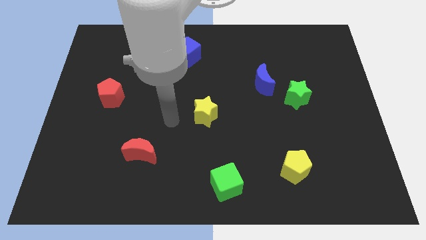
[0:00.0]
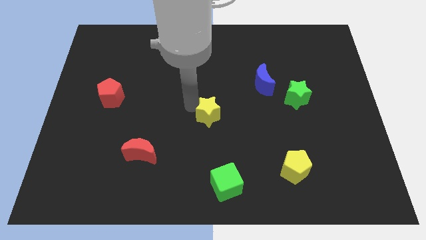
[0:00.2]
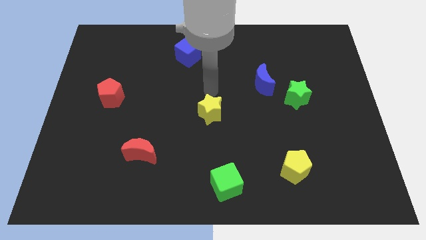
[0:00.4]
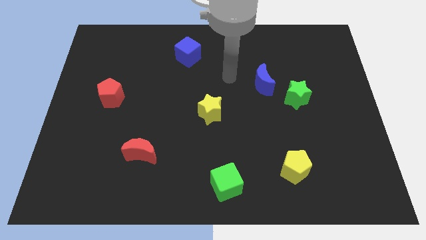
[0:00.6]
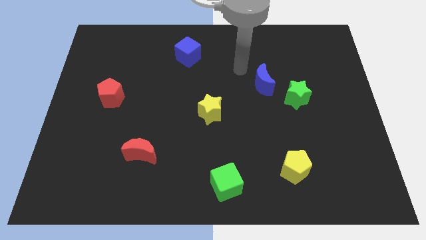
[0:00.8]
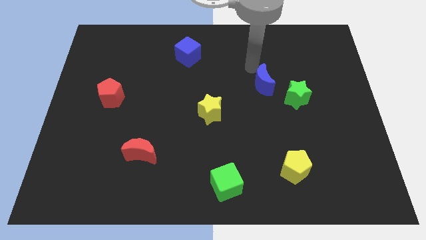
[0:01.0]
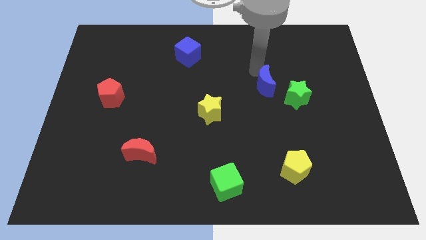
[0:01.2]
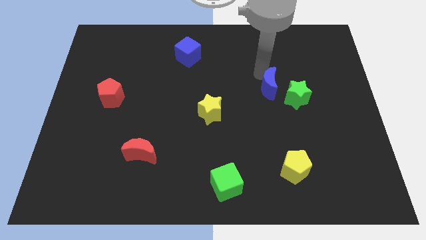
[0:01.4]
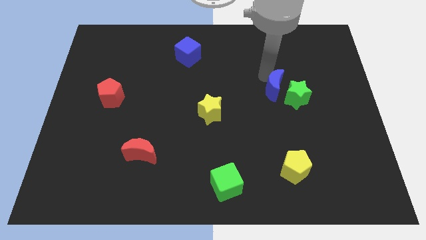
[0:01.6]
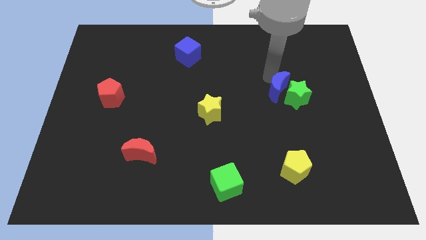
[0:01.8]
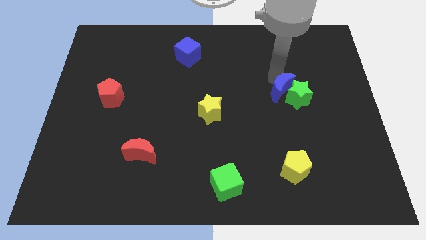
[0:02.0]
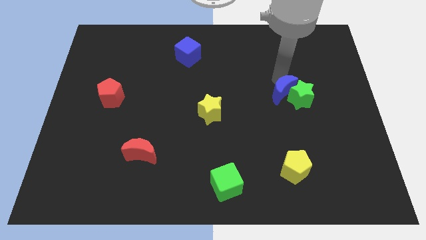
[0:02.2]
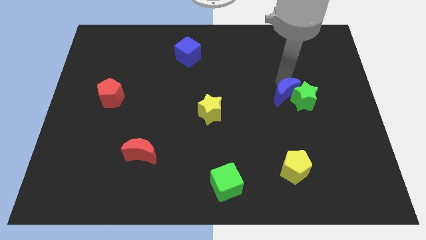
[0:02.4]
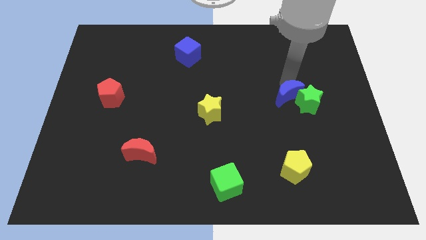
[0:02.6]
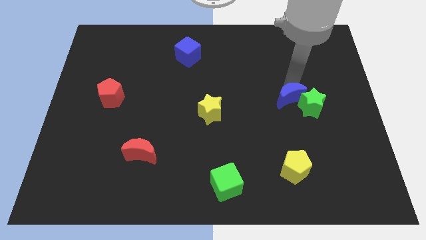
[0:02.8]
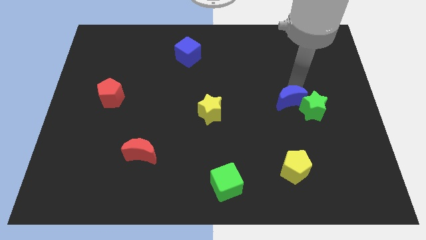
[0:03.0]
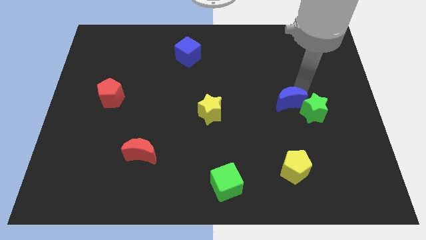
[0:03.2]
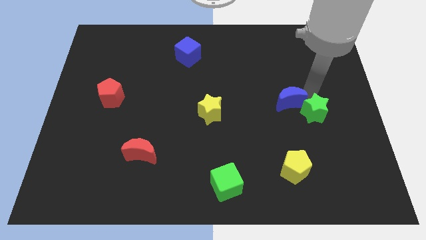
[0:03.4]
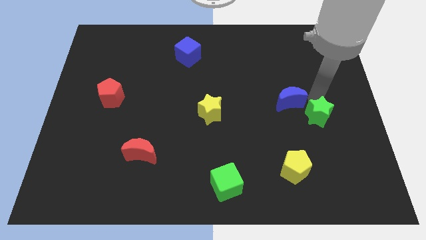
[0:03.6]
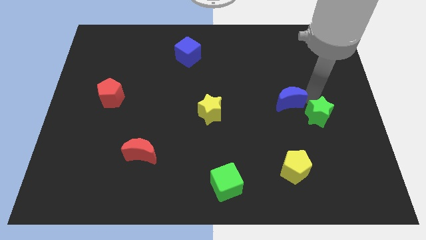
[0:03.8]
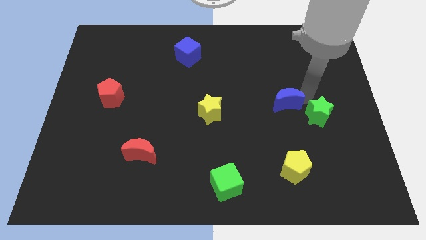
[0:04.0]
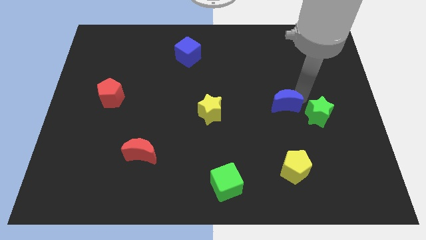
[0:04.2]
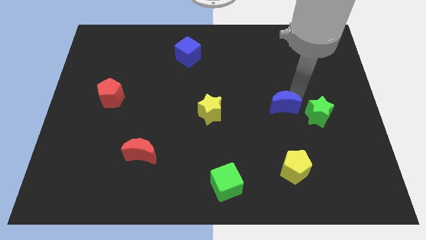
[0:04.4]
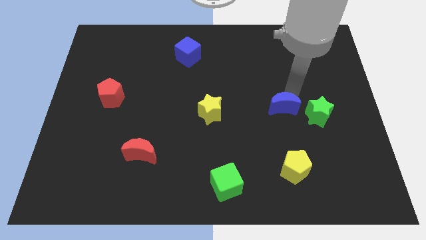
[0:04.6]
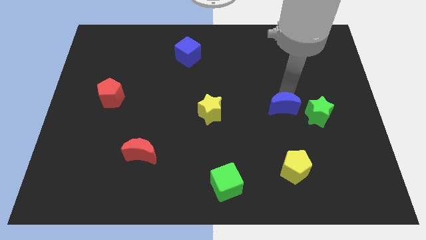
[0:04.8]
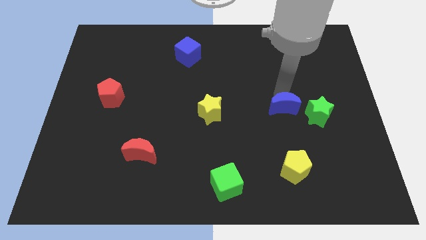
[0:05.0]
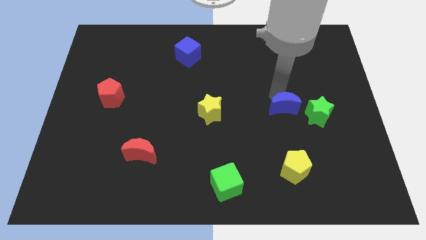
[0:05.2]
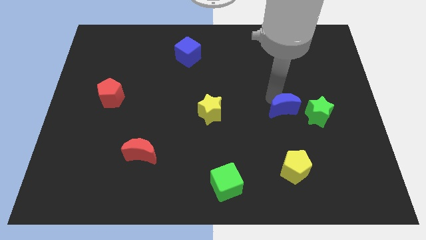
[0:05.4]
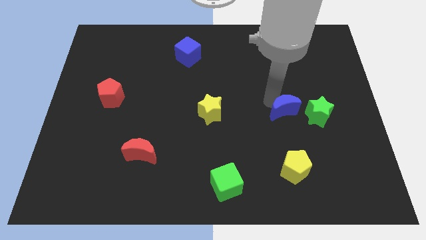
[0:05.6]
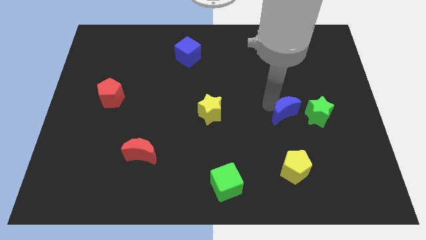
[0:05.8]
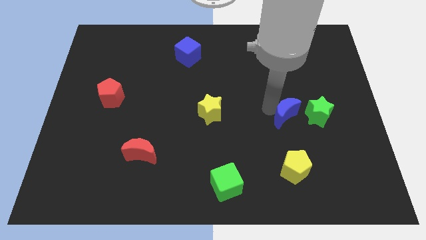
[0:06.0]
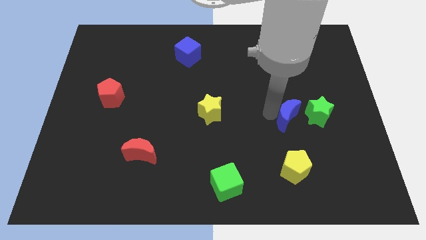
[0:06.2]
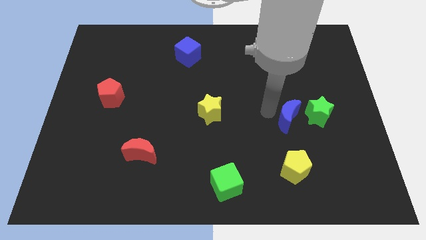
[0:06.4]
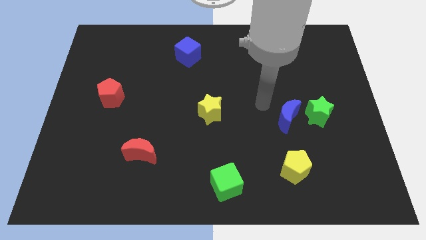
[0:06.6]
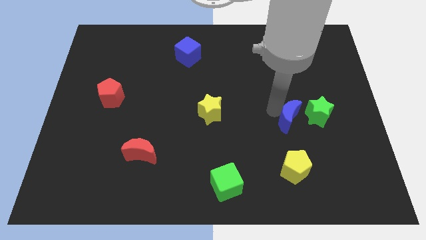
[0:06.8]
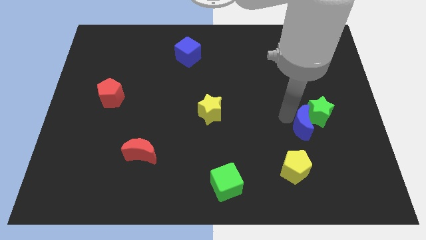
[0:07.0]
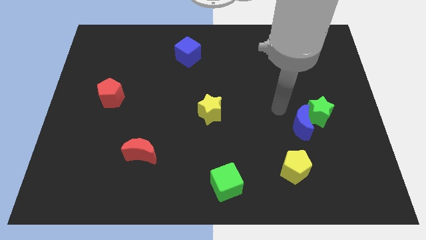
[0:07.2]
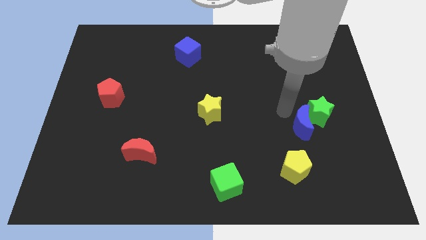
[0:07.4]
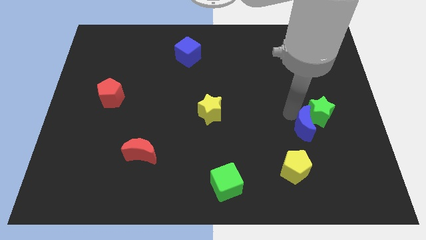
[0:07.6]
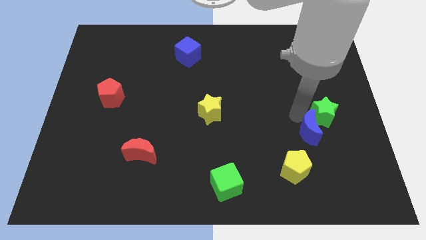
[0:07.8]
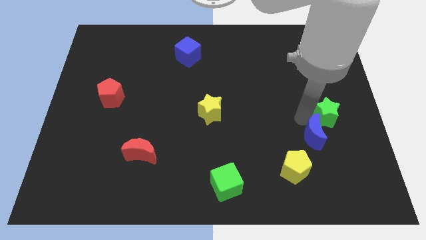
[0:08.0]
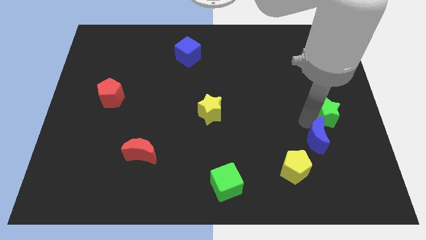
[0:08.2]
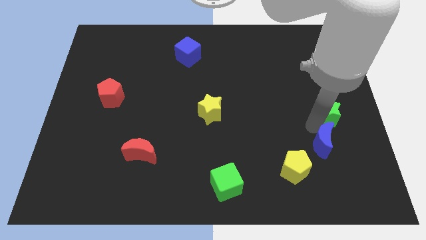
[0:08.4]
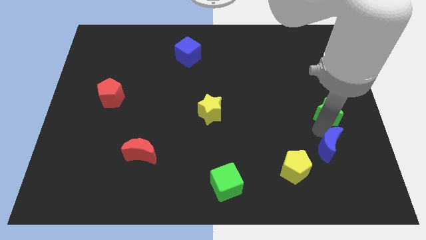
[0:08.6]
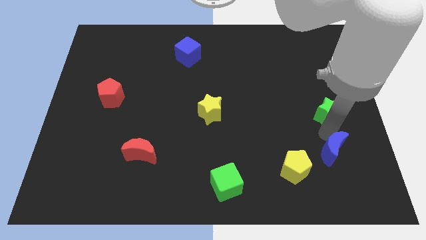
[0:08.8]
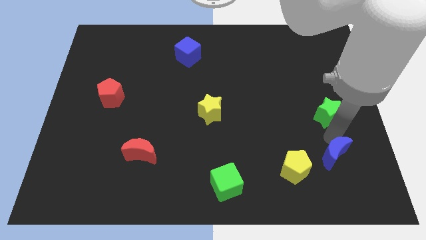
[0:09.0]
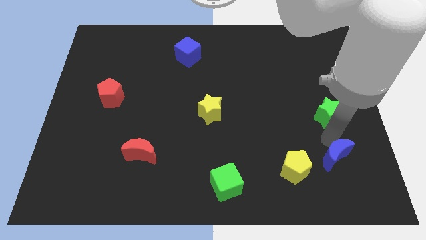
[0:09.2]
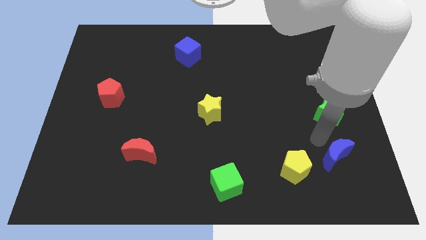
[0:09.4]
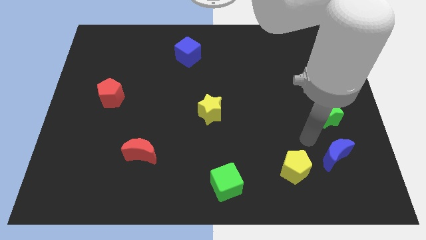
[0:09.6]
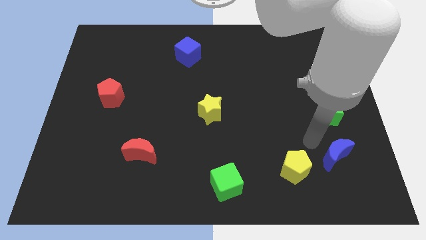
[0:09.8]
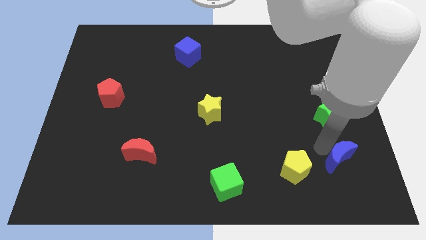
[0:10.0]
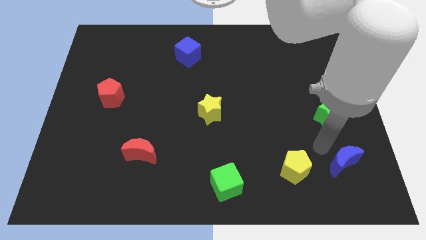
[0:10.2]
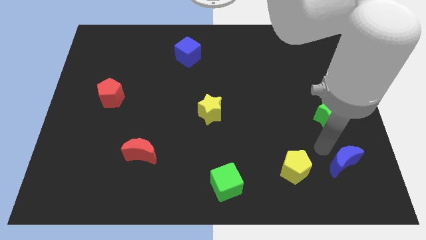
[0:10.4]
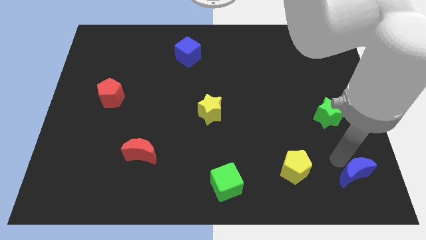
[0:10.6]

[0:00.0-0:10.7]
move the blue moon to the bottom right corner

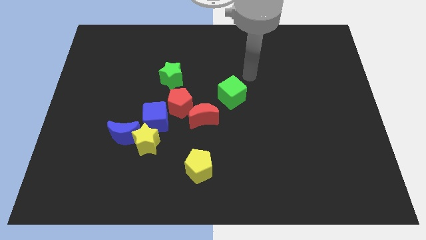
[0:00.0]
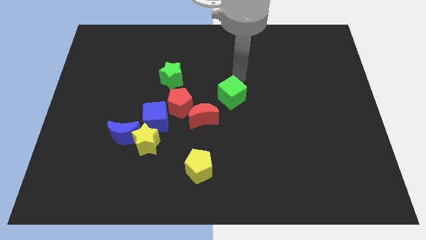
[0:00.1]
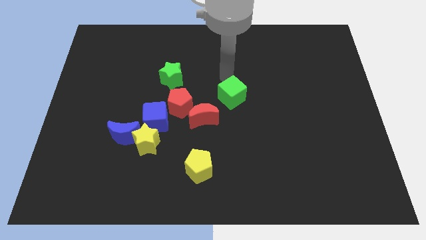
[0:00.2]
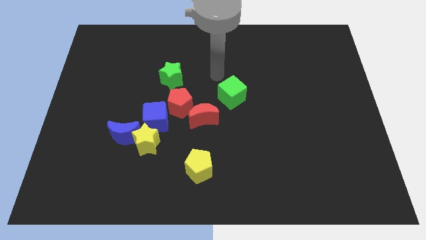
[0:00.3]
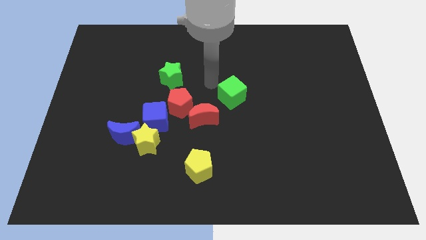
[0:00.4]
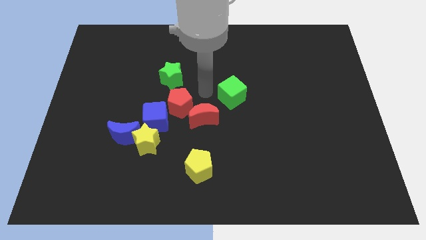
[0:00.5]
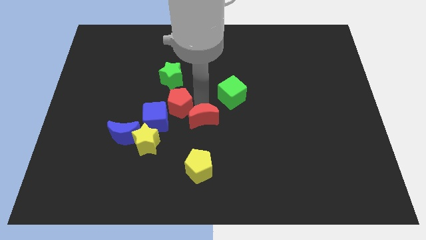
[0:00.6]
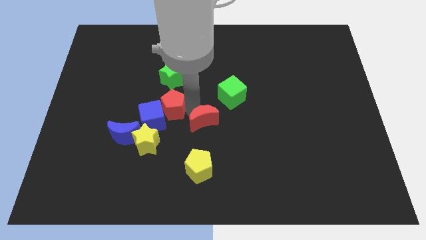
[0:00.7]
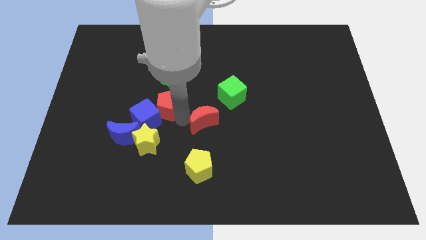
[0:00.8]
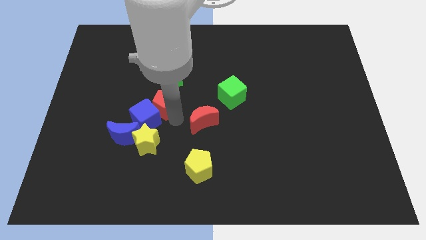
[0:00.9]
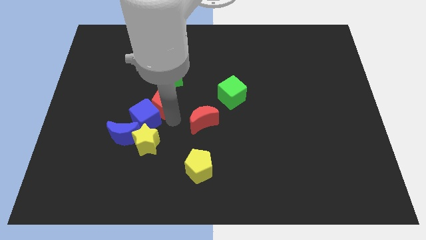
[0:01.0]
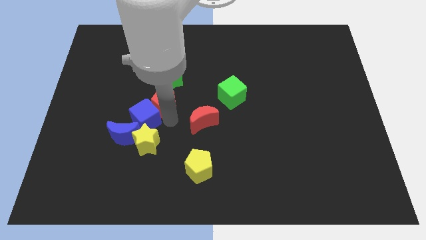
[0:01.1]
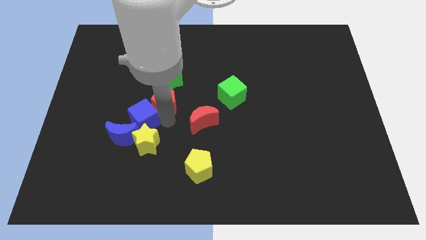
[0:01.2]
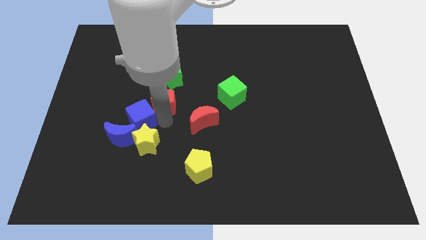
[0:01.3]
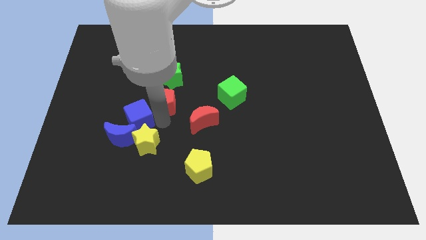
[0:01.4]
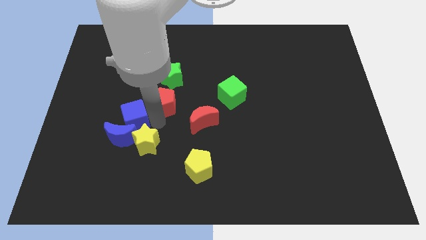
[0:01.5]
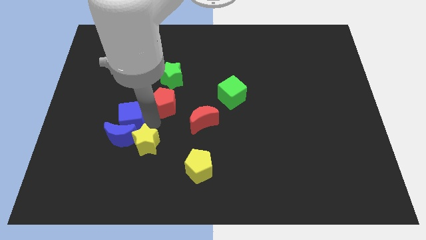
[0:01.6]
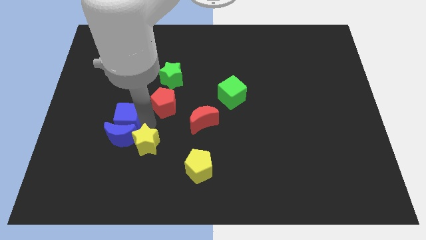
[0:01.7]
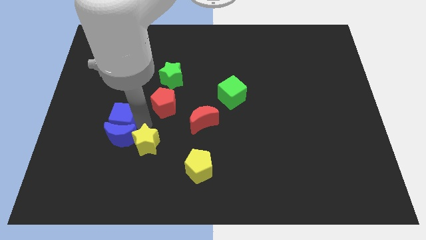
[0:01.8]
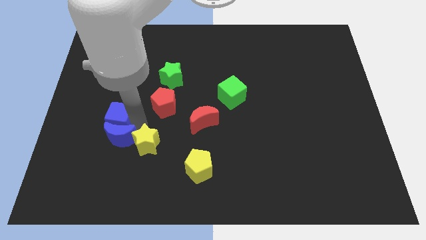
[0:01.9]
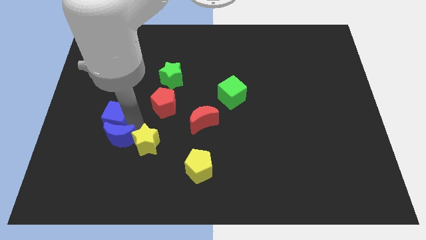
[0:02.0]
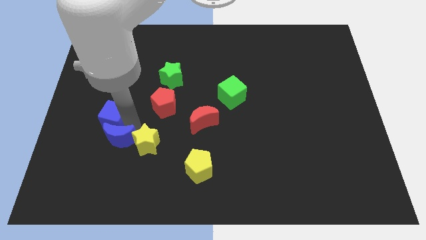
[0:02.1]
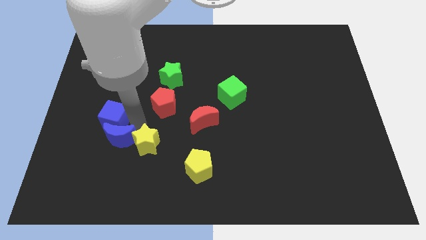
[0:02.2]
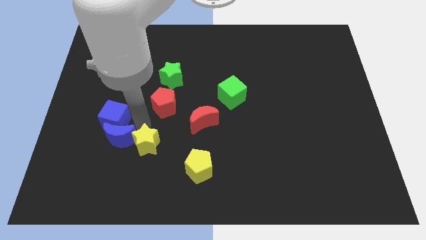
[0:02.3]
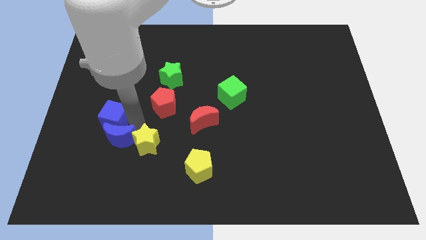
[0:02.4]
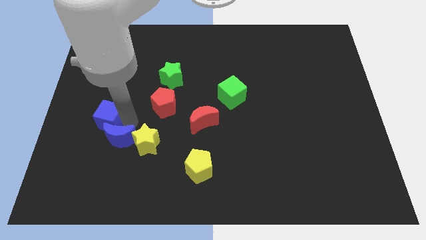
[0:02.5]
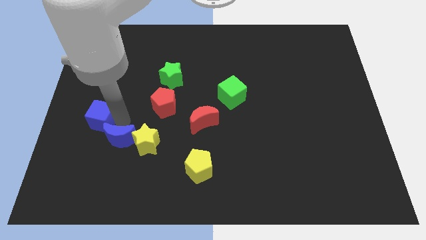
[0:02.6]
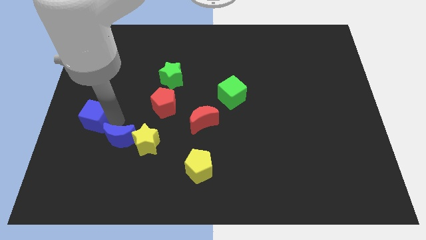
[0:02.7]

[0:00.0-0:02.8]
slide the blue cube to the left side
